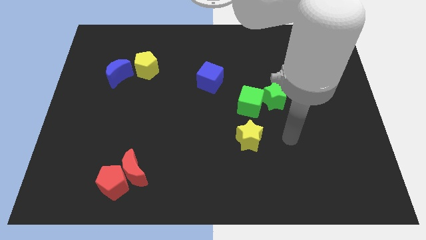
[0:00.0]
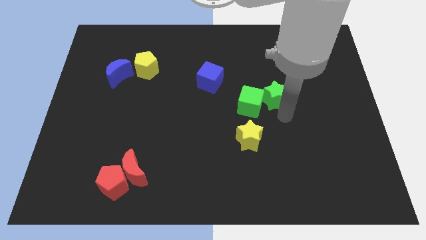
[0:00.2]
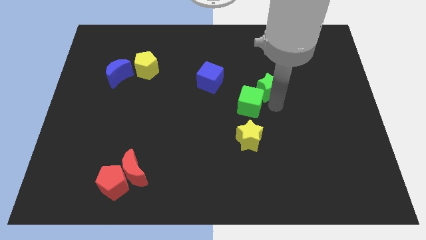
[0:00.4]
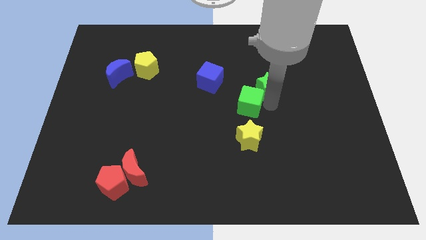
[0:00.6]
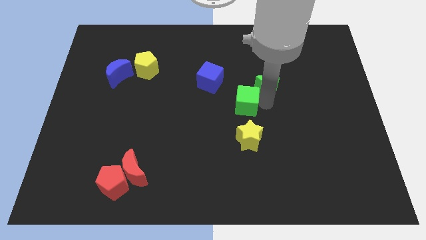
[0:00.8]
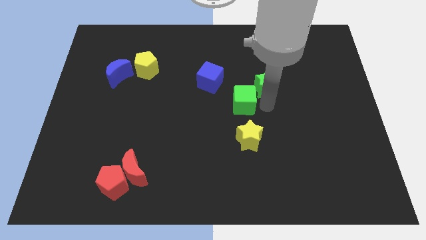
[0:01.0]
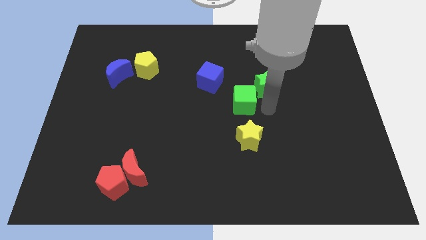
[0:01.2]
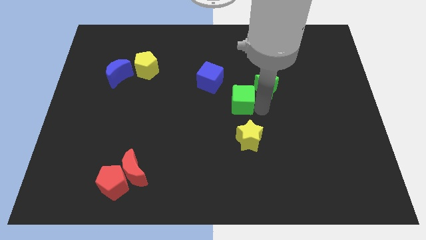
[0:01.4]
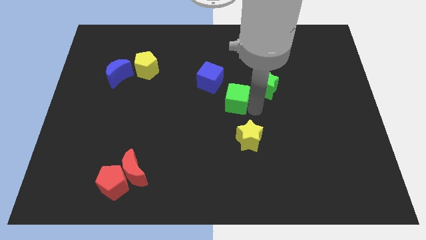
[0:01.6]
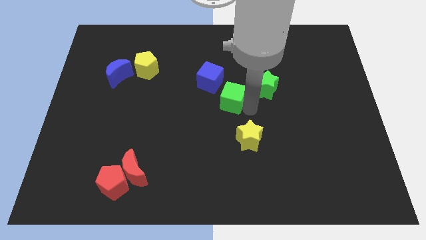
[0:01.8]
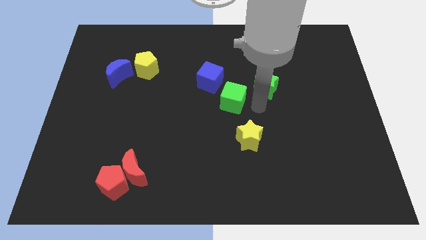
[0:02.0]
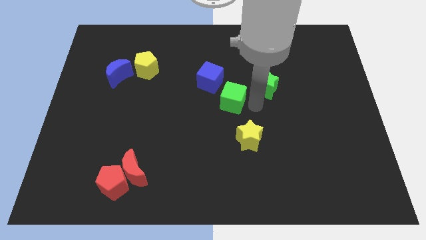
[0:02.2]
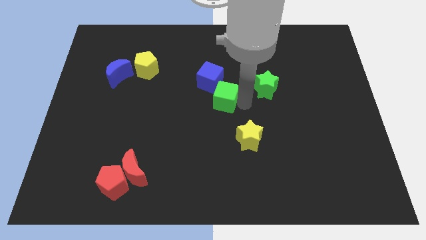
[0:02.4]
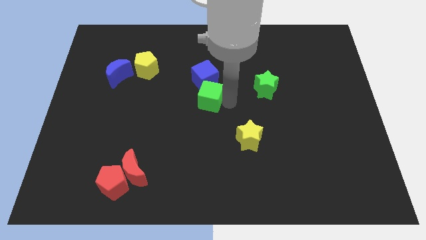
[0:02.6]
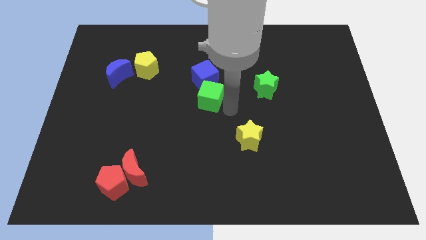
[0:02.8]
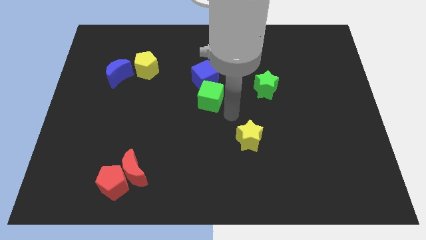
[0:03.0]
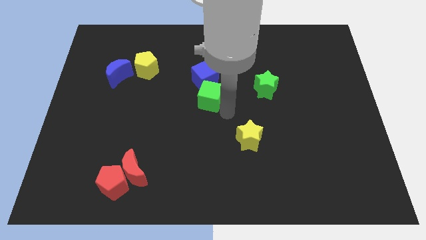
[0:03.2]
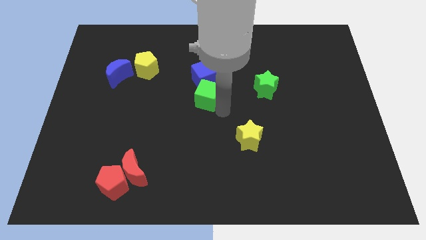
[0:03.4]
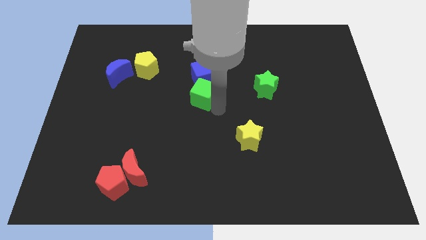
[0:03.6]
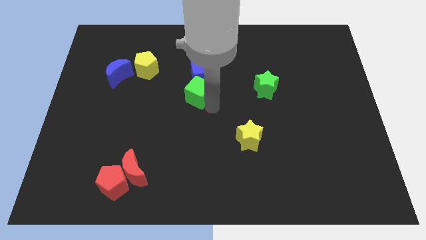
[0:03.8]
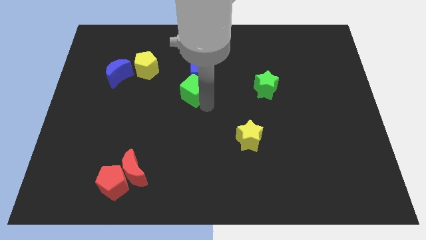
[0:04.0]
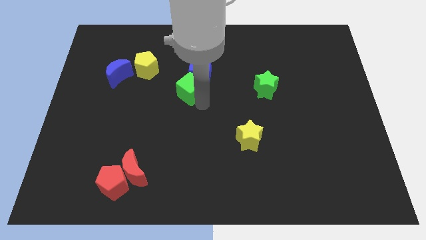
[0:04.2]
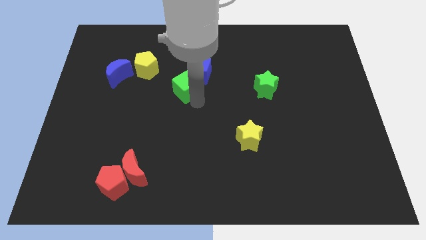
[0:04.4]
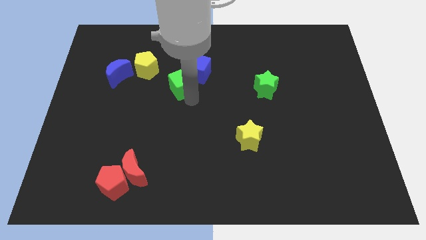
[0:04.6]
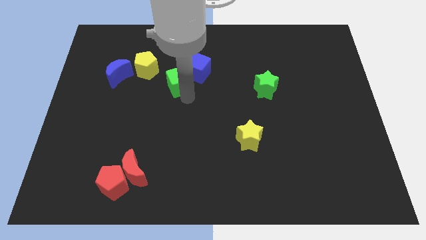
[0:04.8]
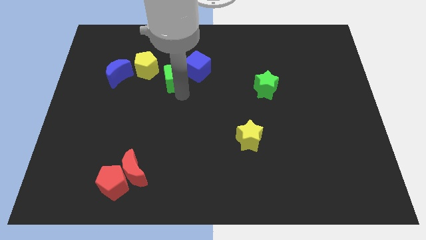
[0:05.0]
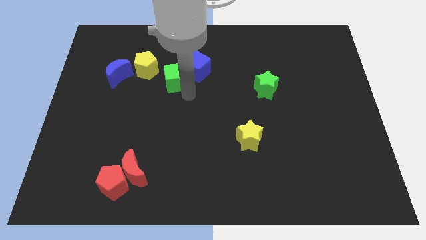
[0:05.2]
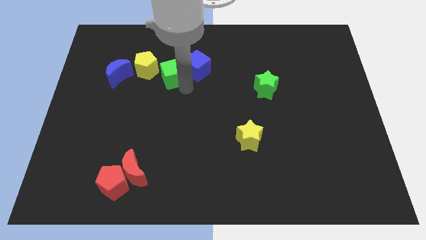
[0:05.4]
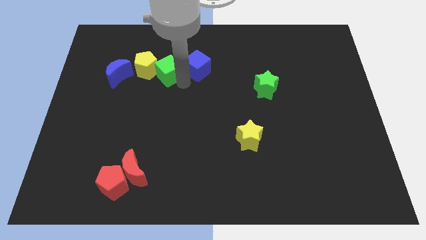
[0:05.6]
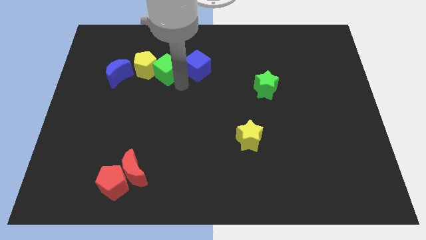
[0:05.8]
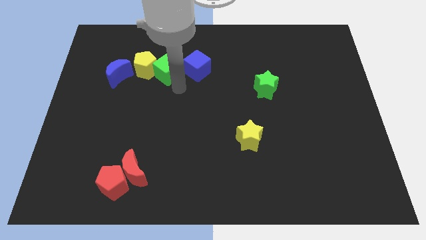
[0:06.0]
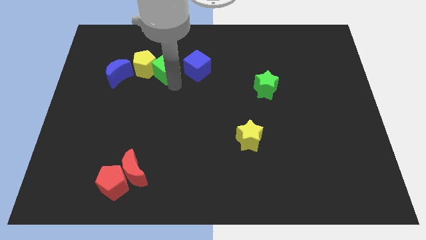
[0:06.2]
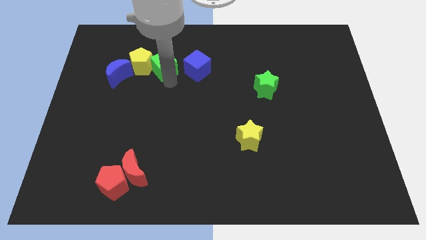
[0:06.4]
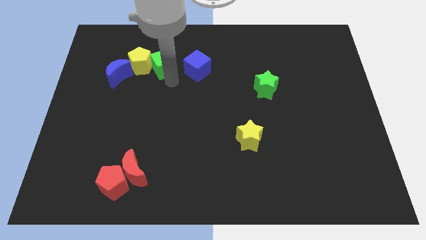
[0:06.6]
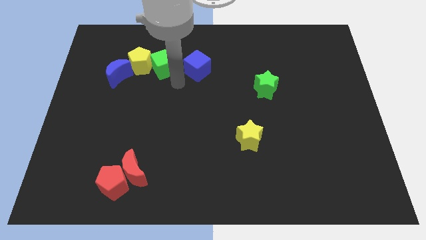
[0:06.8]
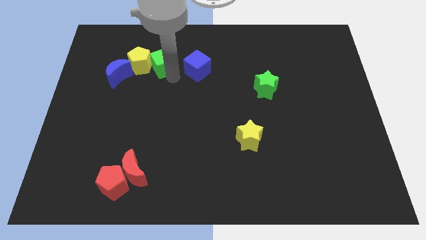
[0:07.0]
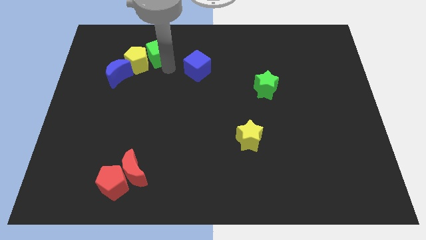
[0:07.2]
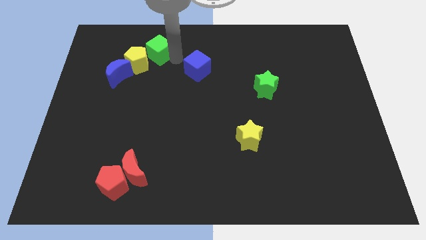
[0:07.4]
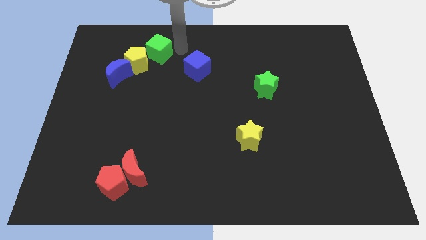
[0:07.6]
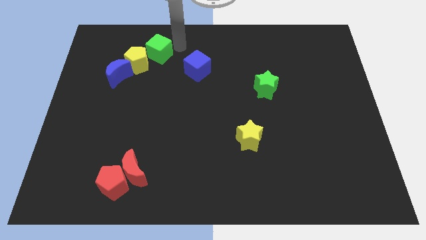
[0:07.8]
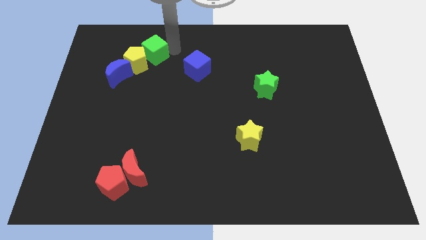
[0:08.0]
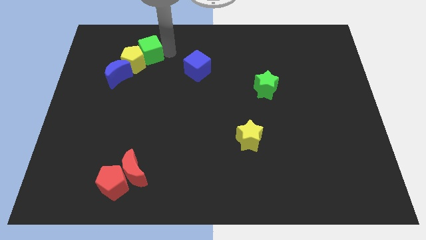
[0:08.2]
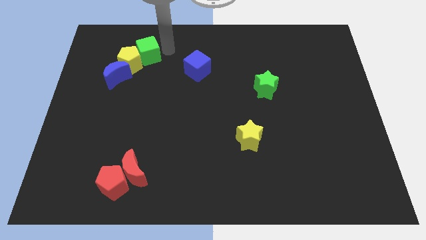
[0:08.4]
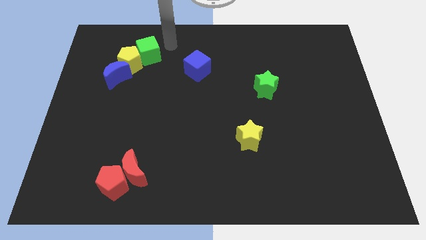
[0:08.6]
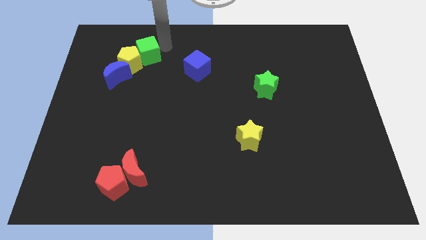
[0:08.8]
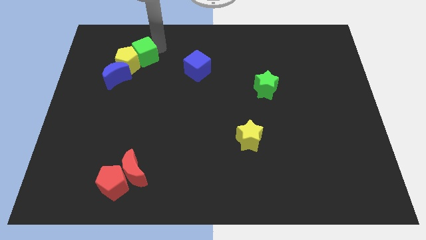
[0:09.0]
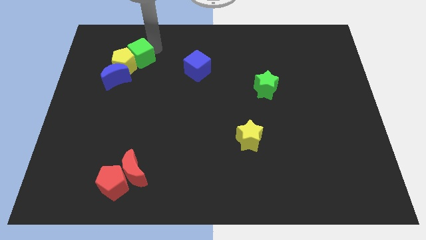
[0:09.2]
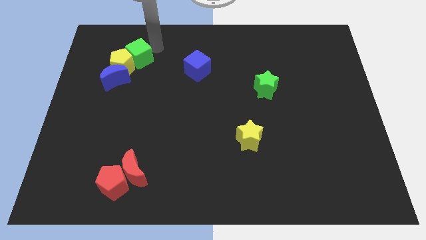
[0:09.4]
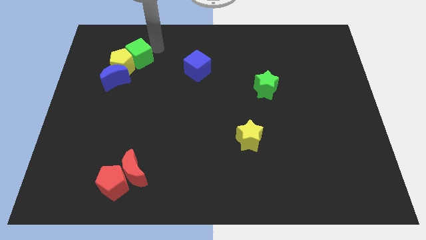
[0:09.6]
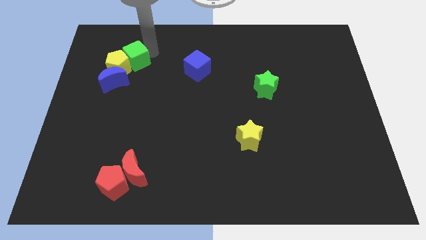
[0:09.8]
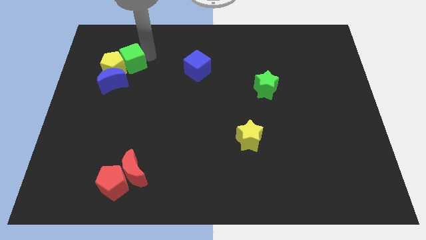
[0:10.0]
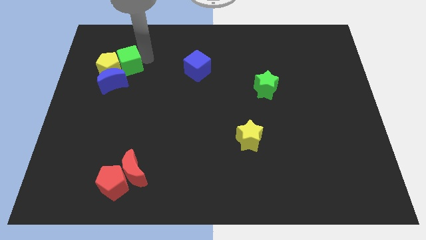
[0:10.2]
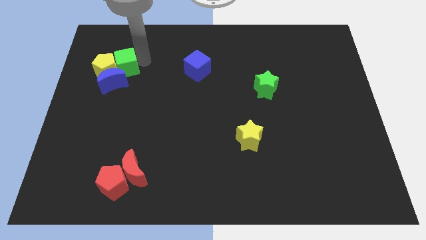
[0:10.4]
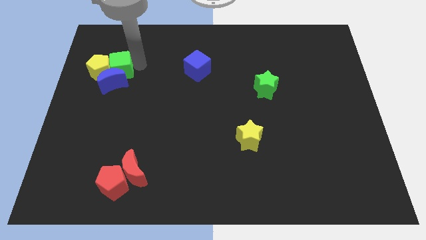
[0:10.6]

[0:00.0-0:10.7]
put the green cube diagonally up and to the left of the blue moon

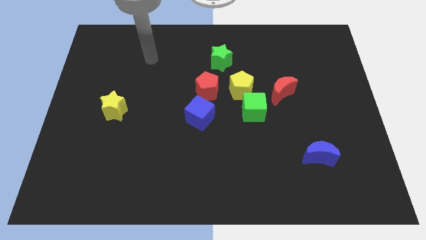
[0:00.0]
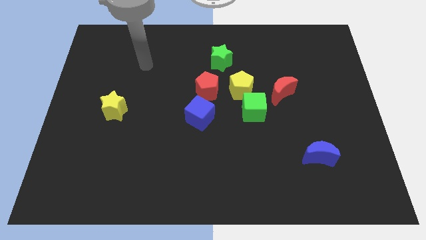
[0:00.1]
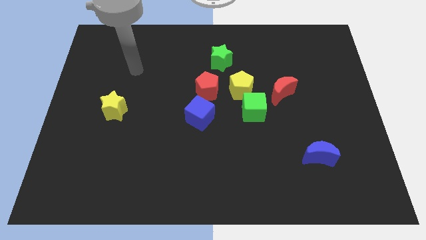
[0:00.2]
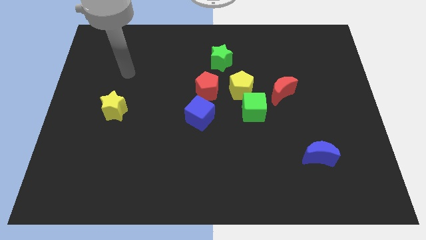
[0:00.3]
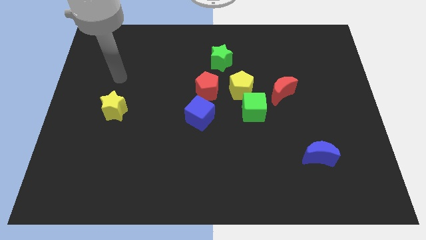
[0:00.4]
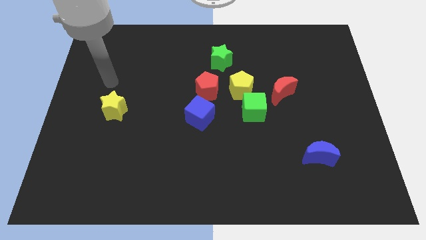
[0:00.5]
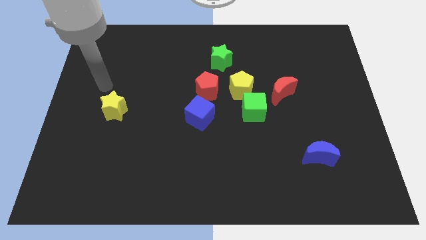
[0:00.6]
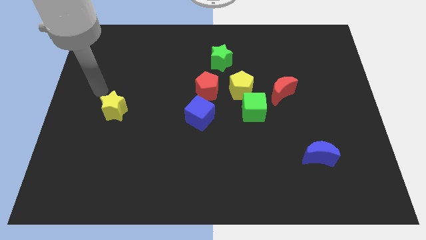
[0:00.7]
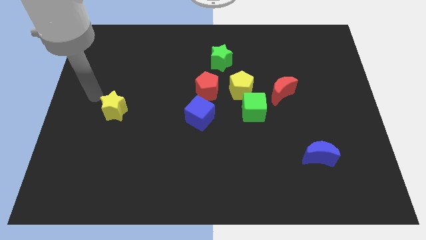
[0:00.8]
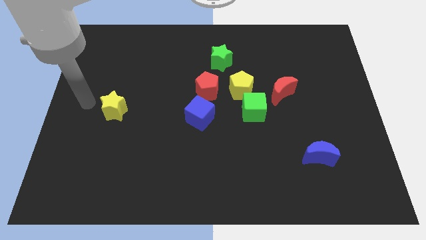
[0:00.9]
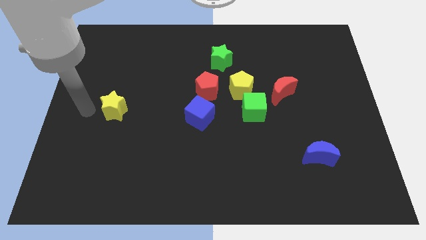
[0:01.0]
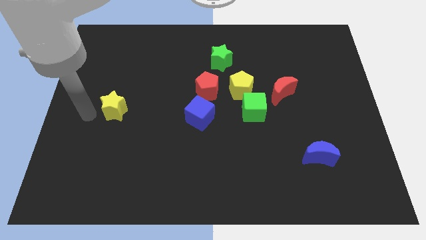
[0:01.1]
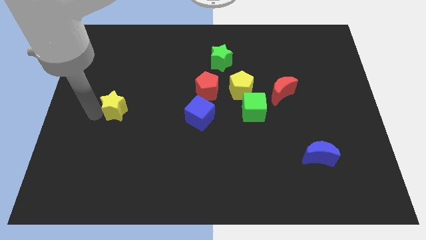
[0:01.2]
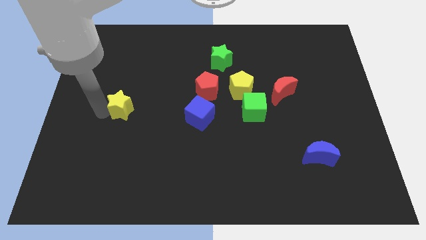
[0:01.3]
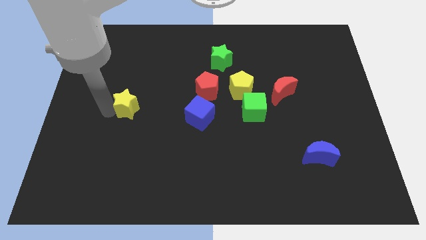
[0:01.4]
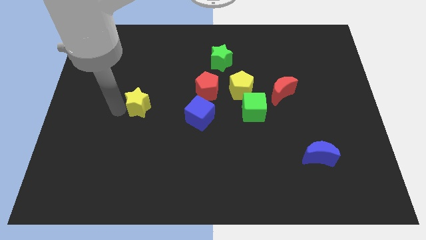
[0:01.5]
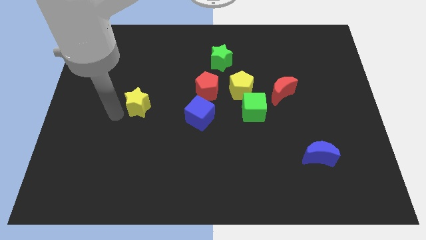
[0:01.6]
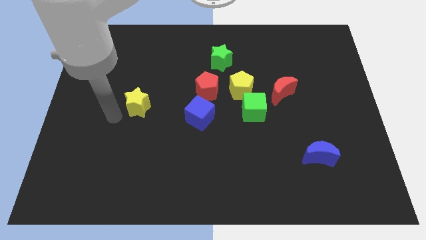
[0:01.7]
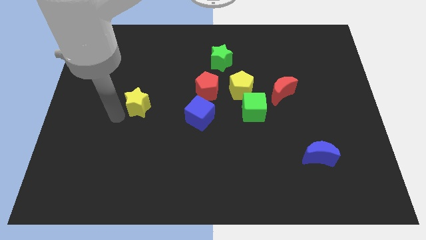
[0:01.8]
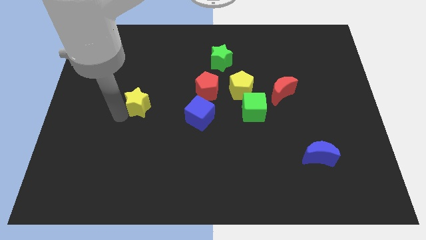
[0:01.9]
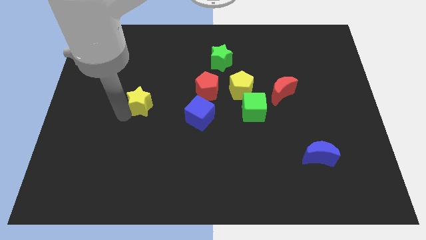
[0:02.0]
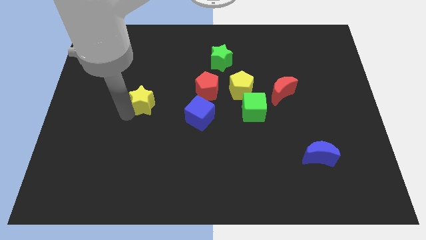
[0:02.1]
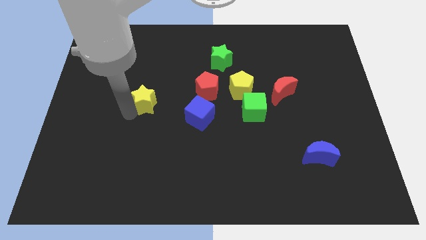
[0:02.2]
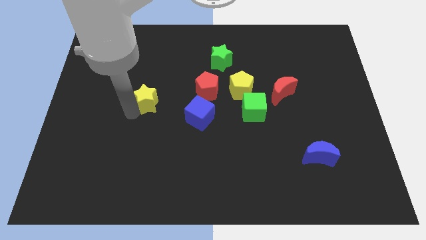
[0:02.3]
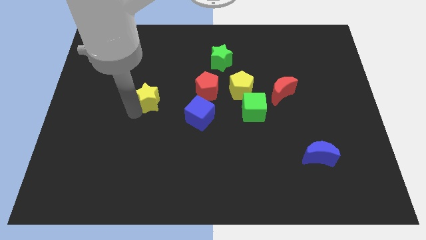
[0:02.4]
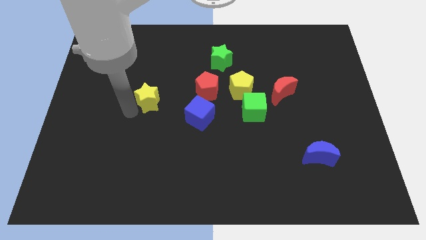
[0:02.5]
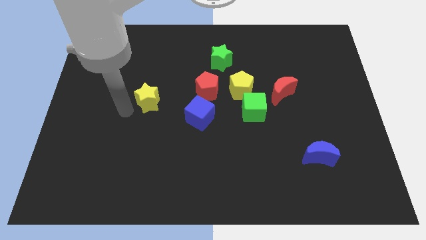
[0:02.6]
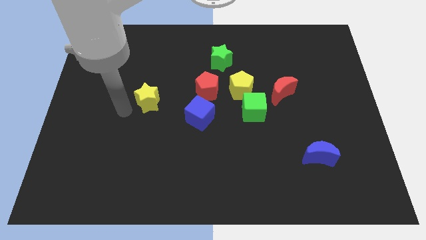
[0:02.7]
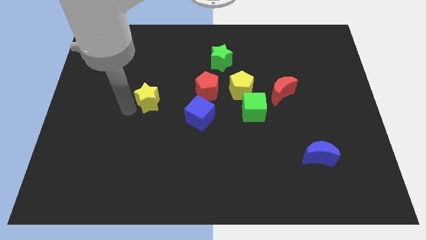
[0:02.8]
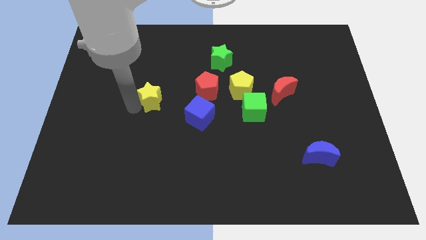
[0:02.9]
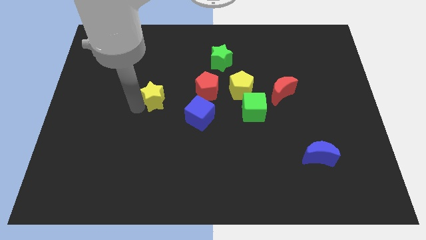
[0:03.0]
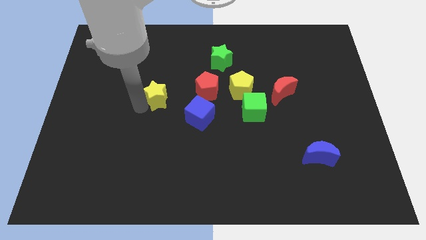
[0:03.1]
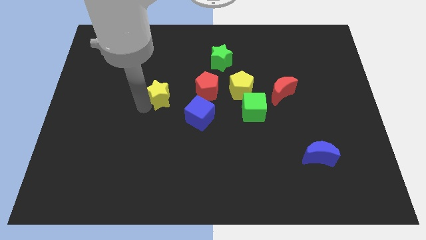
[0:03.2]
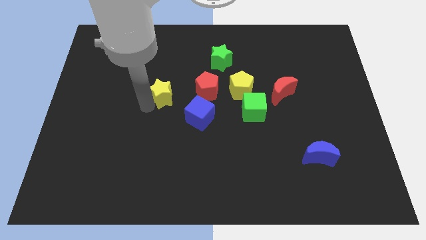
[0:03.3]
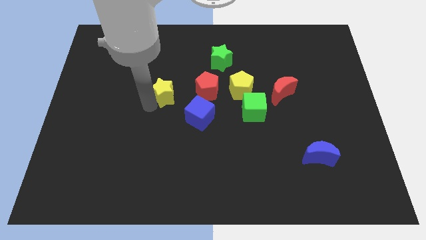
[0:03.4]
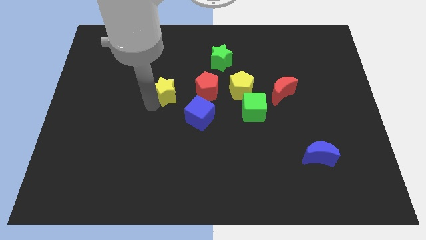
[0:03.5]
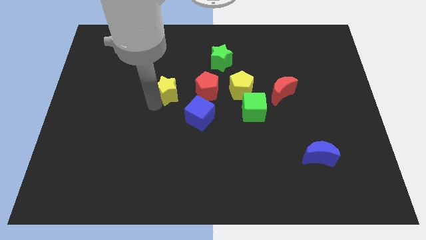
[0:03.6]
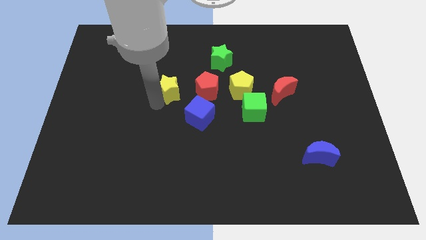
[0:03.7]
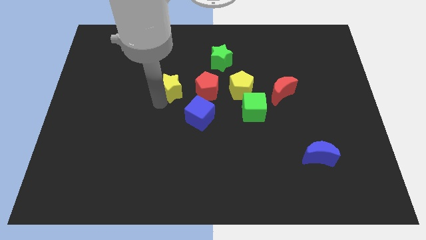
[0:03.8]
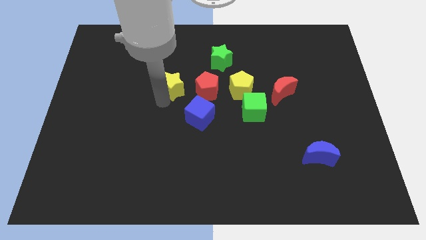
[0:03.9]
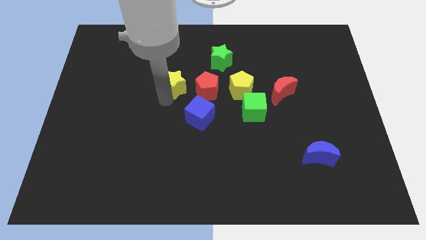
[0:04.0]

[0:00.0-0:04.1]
move the yellow star to the top left side of the red pentagon
